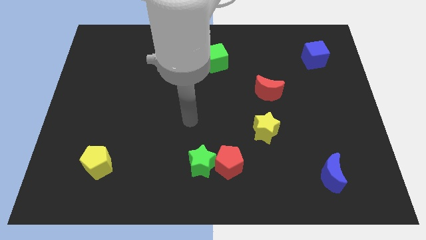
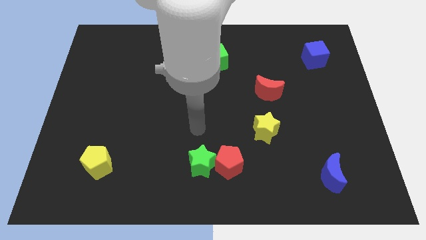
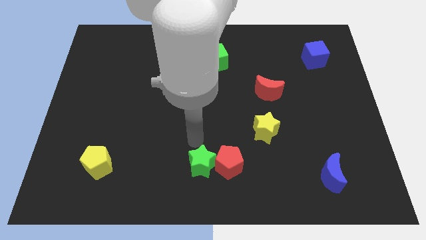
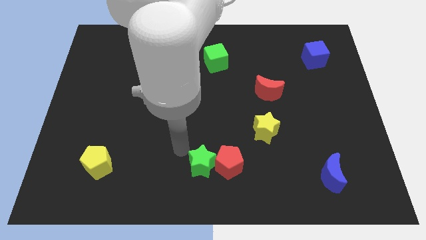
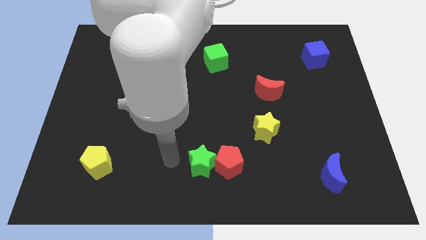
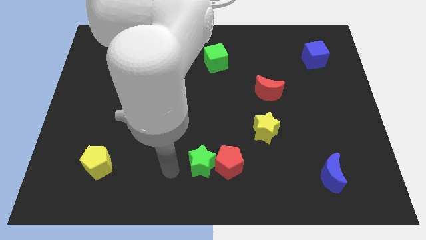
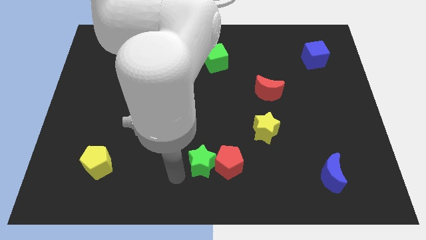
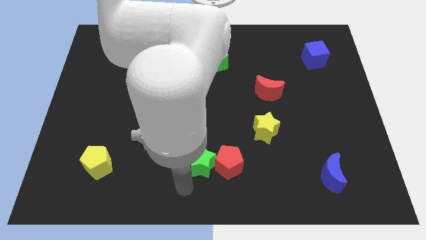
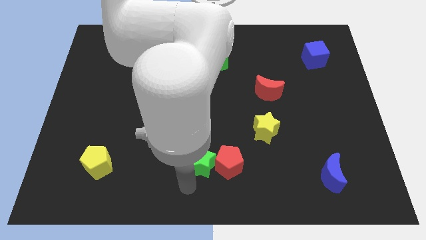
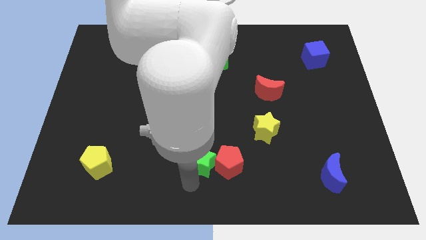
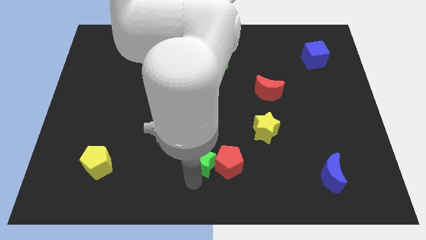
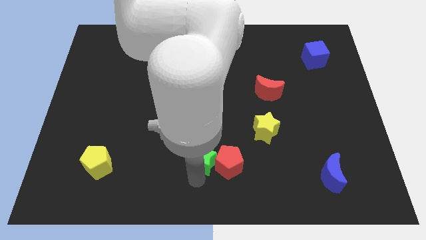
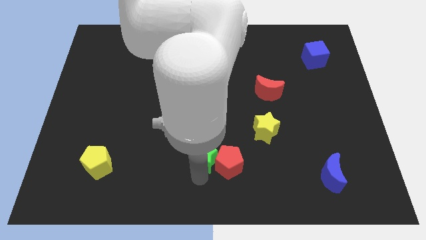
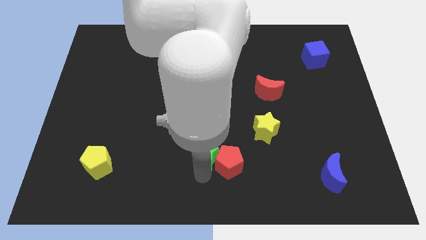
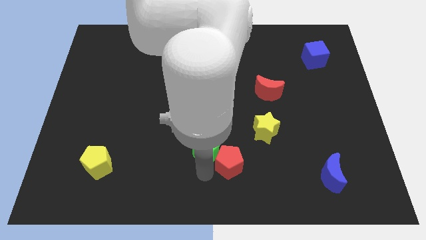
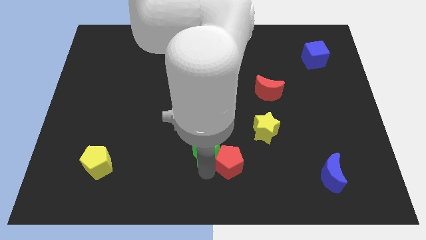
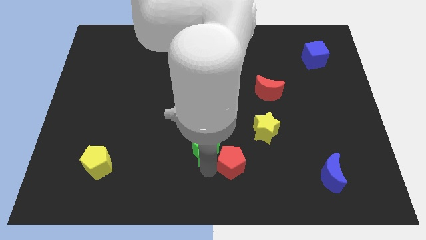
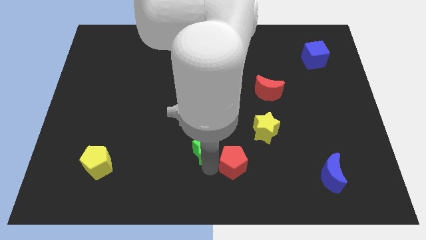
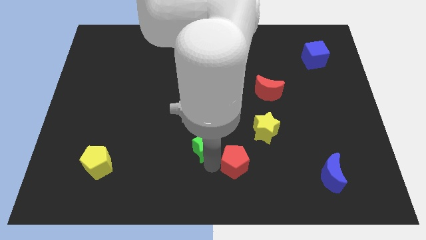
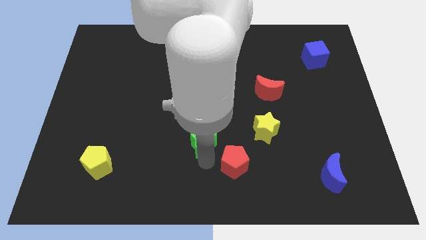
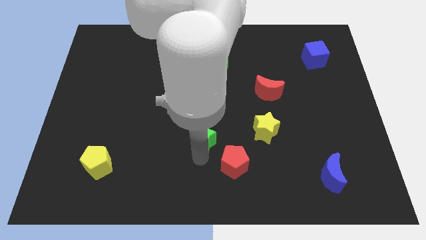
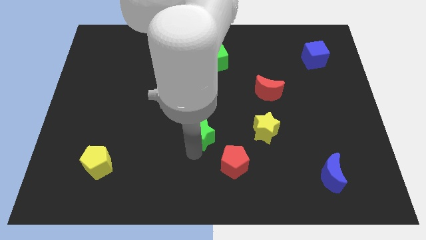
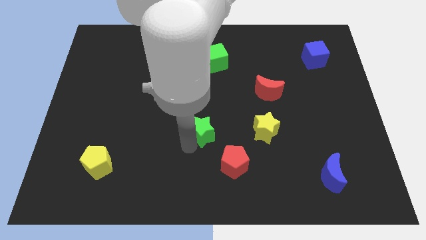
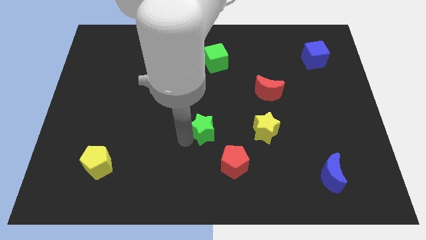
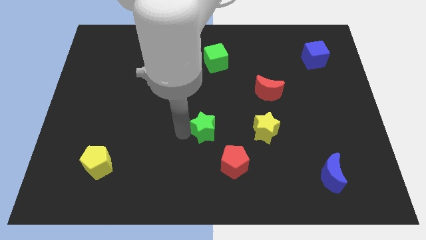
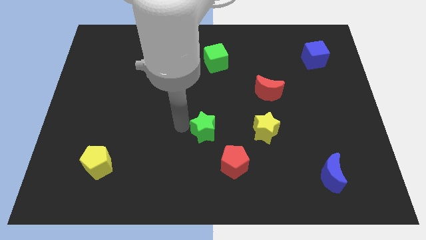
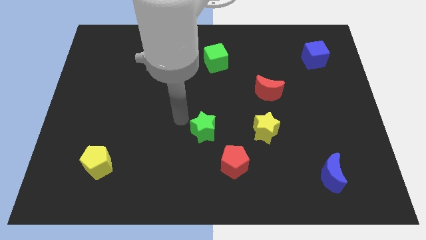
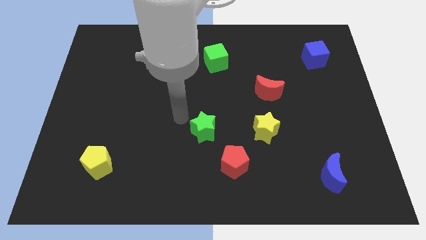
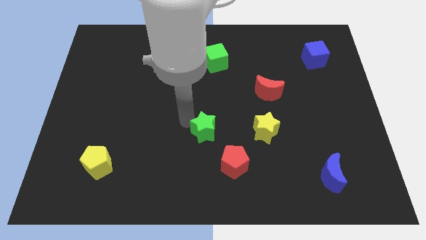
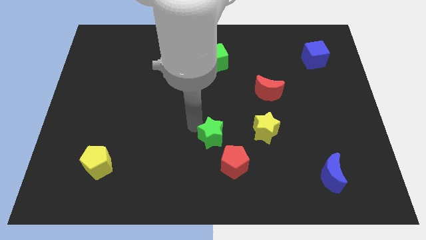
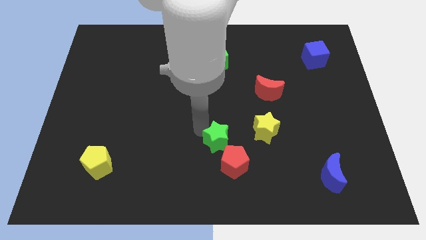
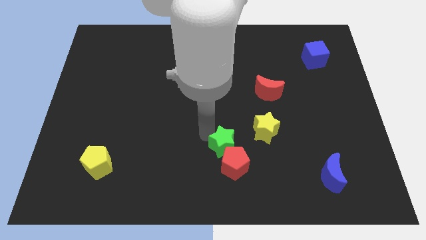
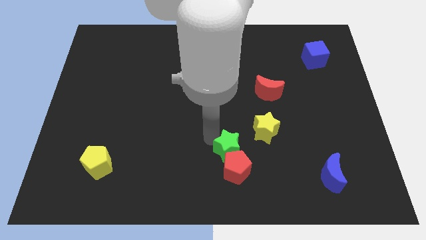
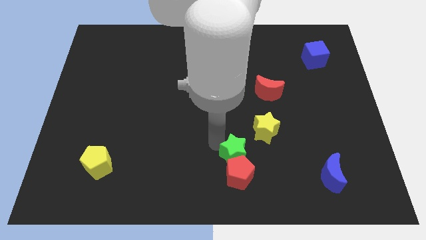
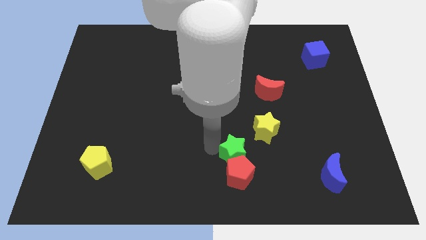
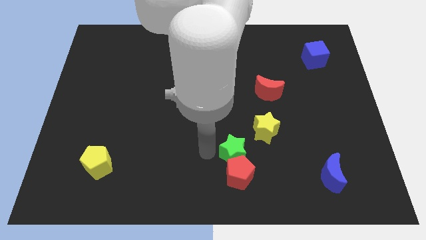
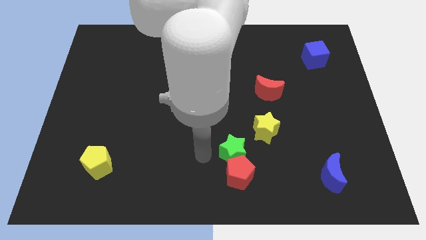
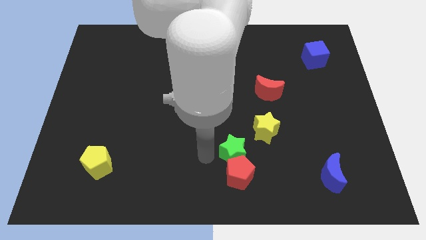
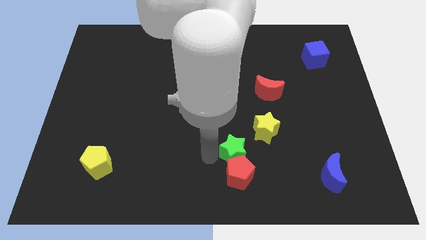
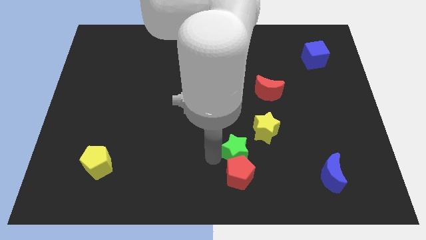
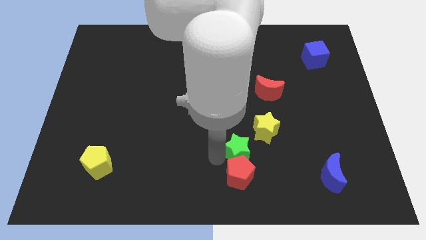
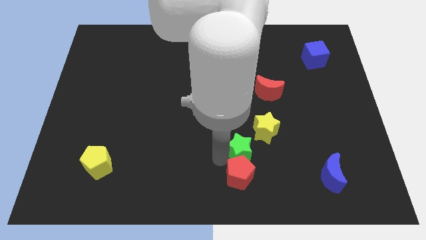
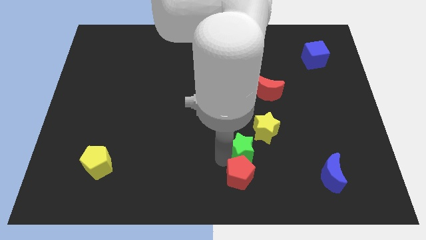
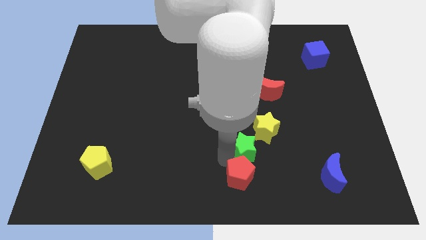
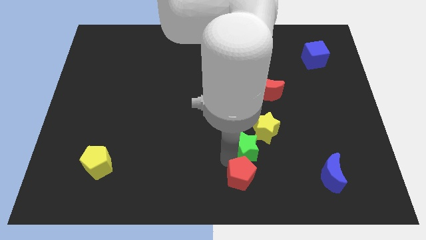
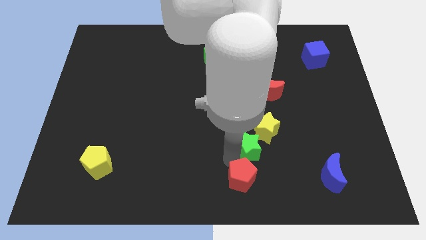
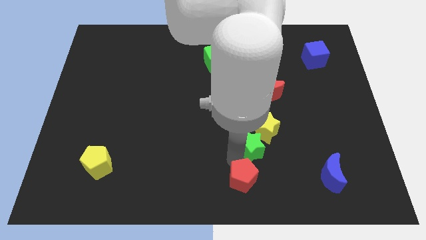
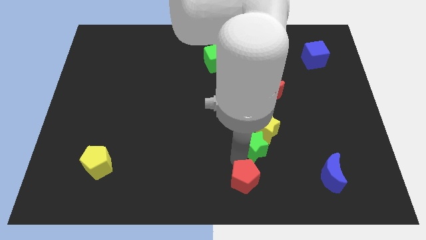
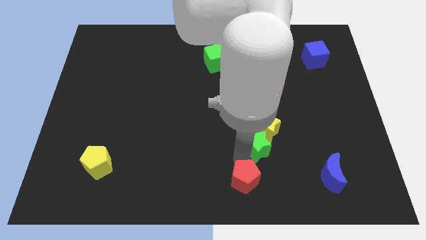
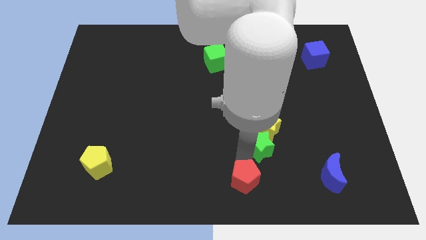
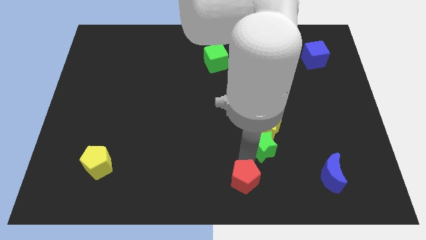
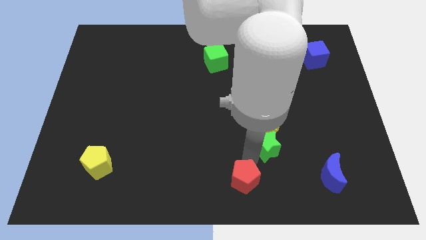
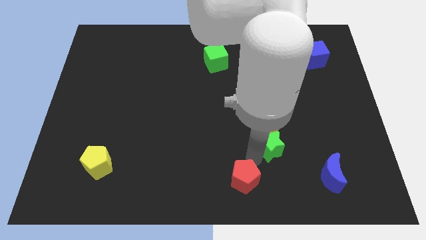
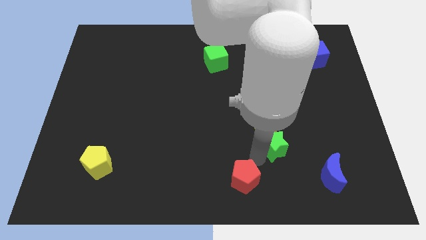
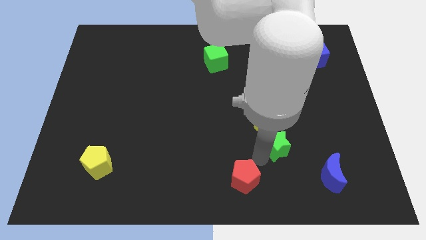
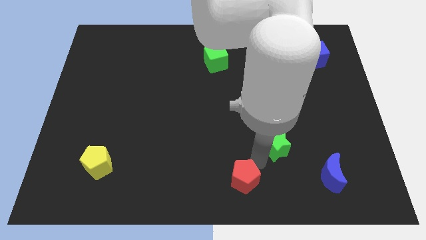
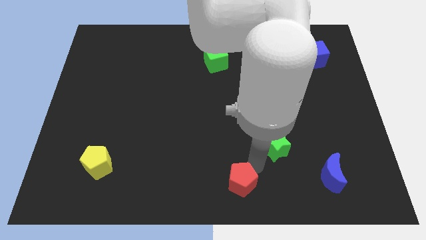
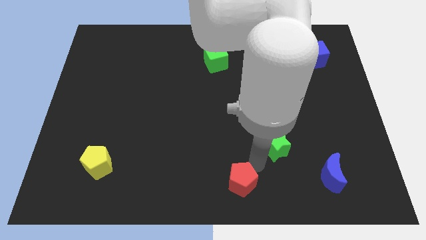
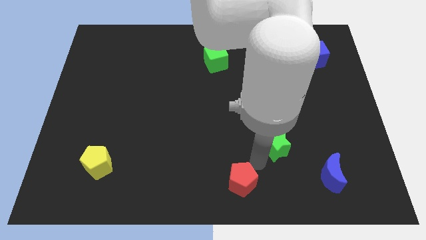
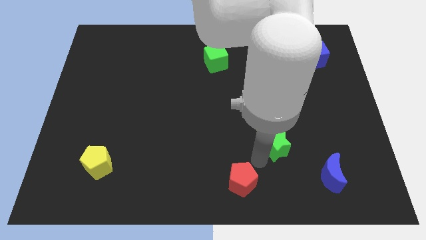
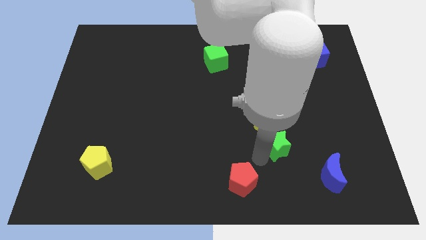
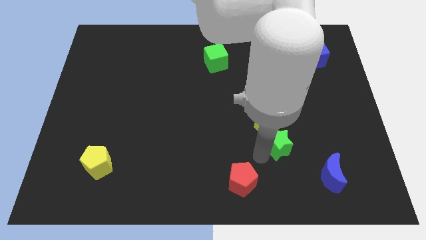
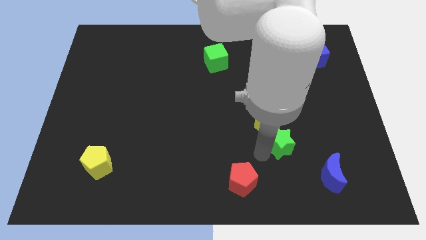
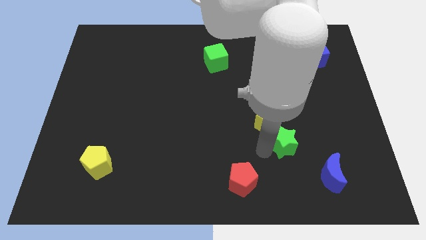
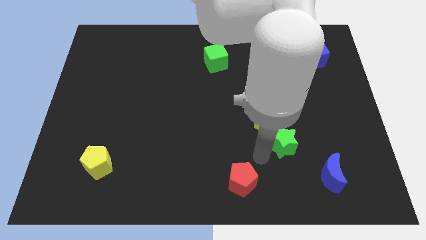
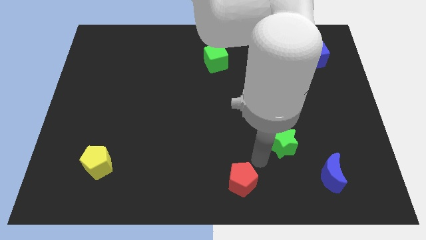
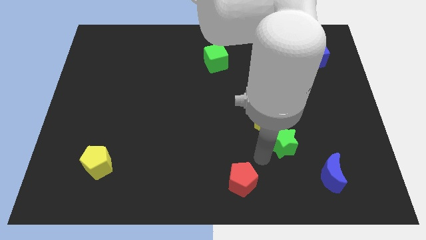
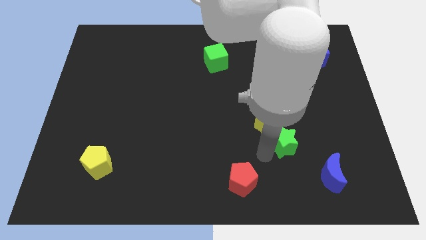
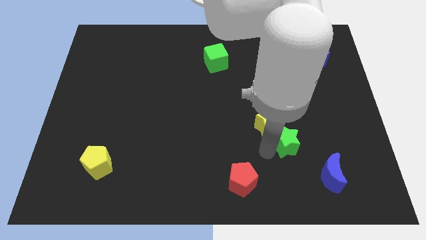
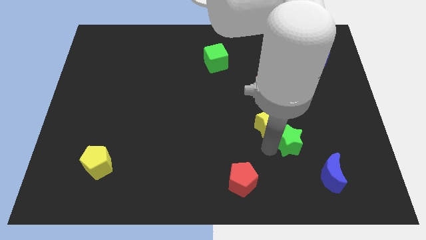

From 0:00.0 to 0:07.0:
push the green star just right of the yellow star
